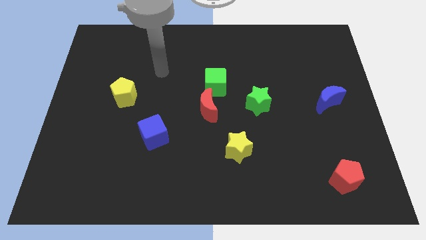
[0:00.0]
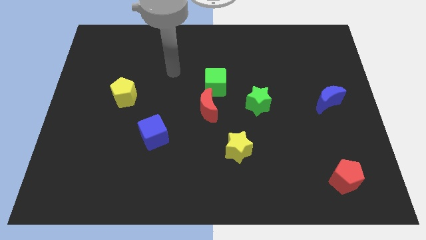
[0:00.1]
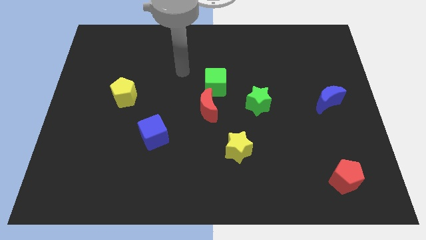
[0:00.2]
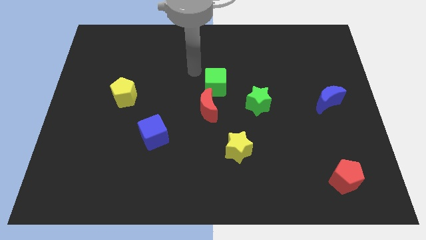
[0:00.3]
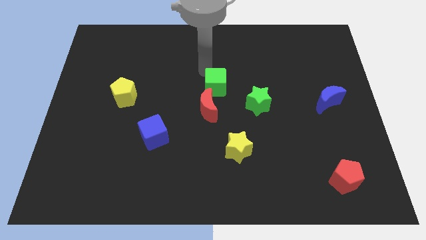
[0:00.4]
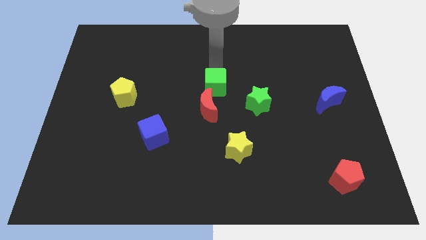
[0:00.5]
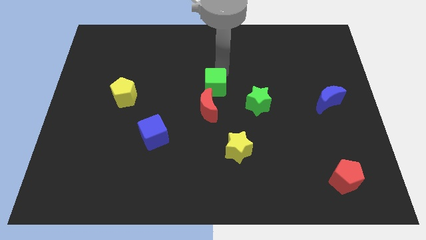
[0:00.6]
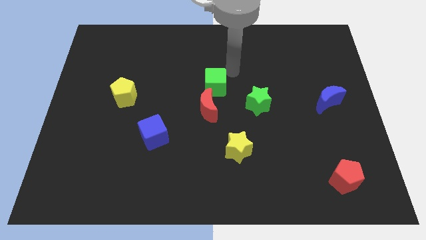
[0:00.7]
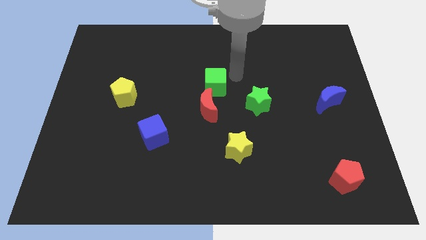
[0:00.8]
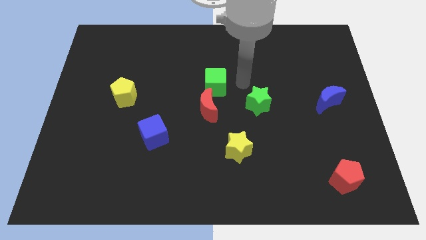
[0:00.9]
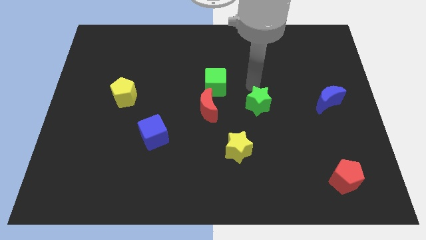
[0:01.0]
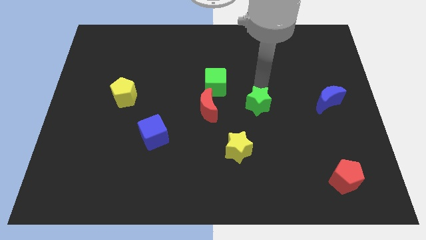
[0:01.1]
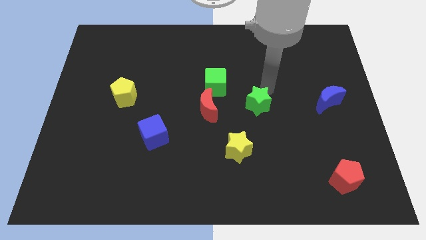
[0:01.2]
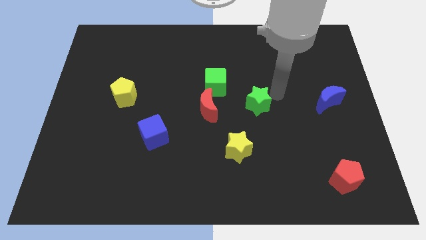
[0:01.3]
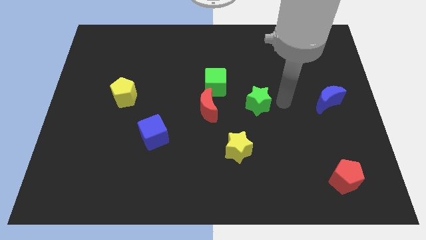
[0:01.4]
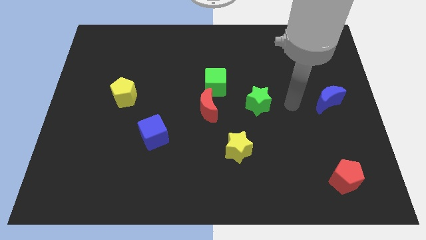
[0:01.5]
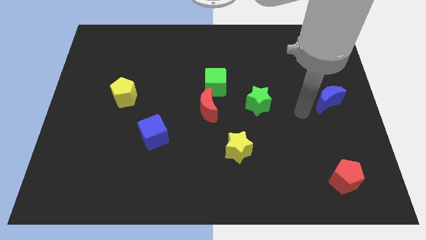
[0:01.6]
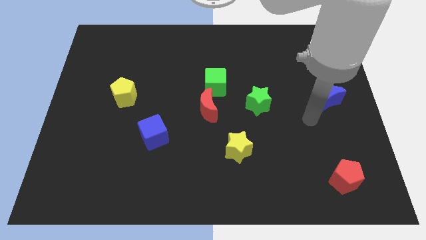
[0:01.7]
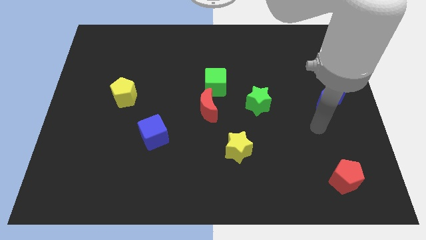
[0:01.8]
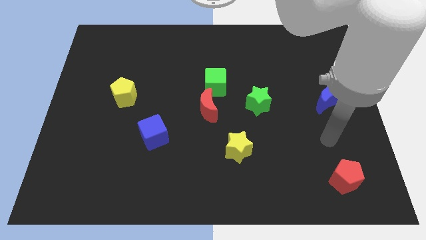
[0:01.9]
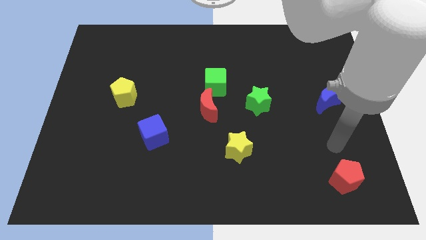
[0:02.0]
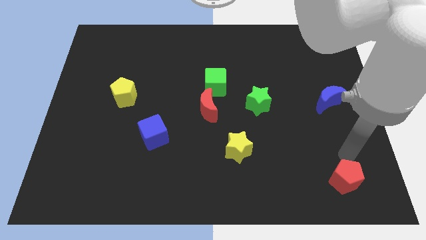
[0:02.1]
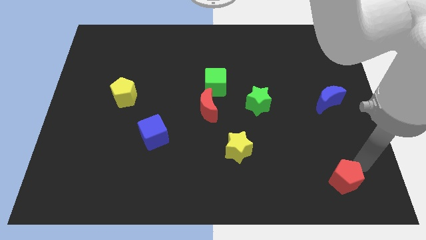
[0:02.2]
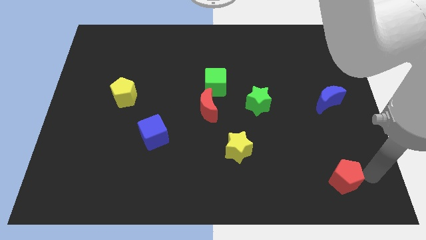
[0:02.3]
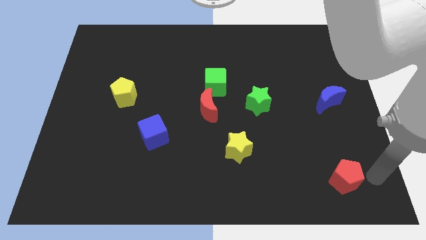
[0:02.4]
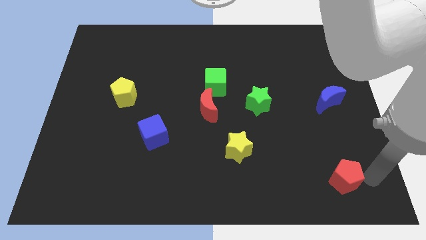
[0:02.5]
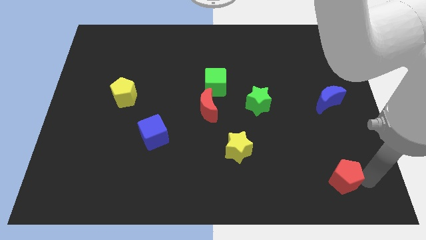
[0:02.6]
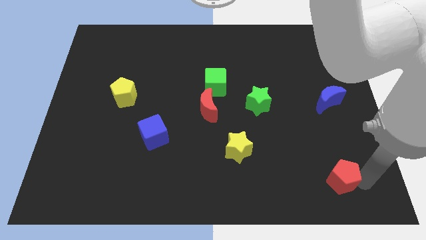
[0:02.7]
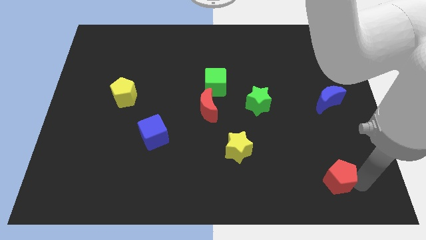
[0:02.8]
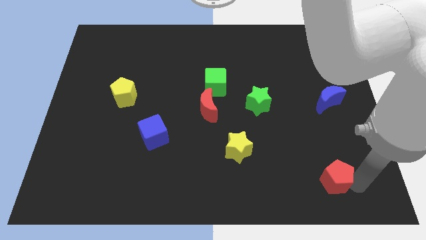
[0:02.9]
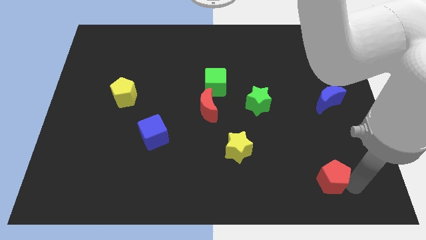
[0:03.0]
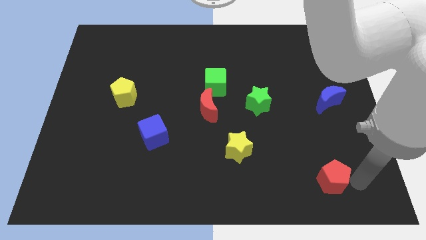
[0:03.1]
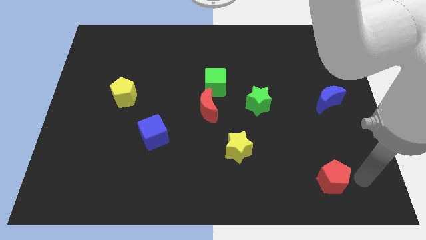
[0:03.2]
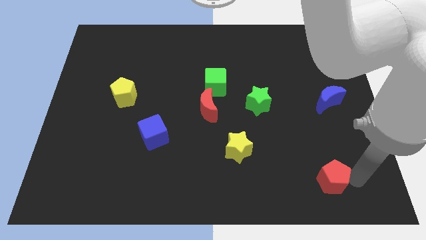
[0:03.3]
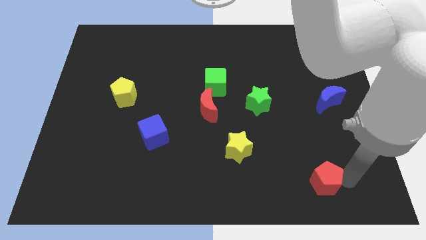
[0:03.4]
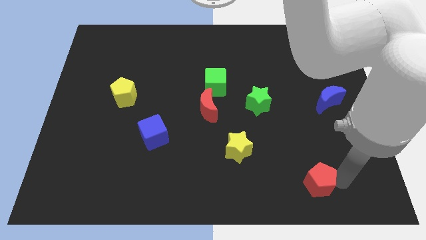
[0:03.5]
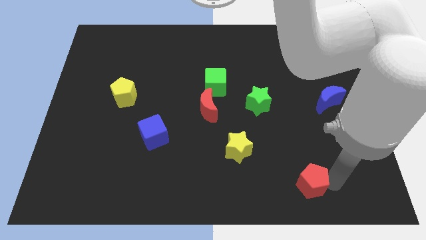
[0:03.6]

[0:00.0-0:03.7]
push the red pentagon to the left a little bit

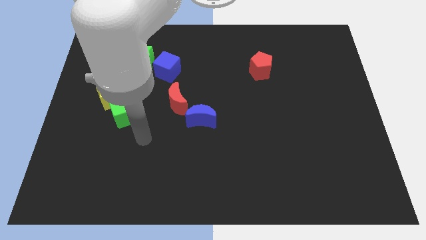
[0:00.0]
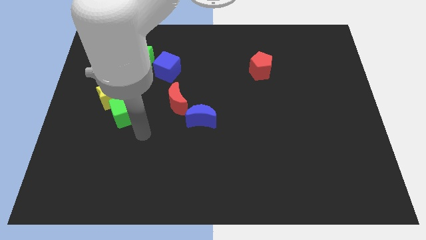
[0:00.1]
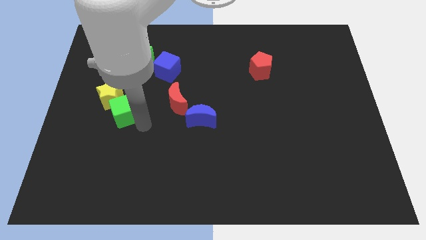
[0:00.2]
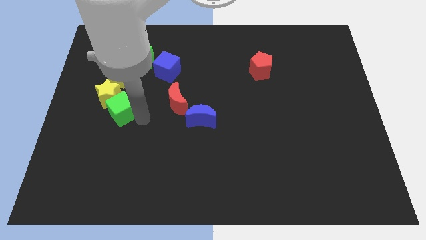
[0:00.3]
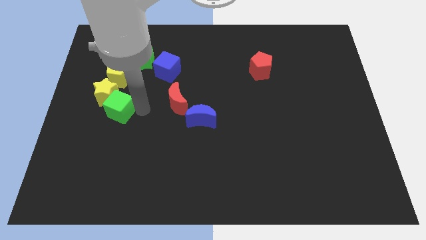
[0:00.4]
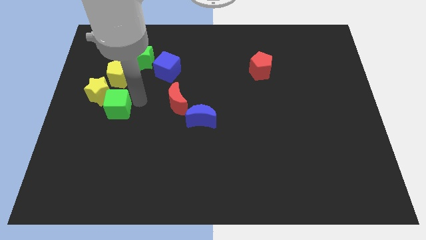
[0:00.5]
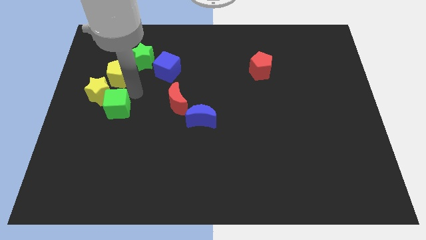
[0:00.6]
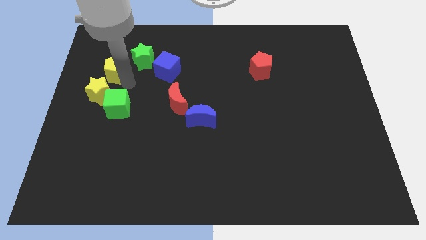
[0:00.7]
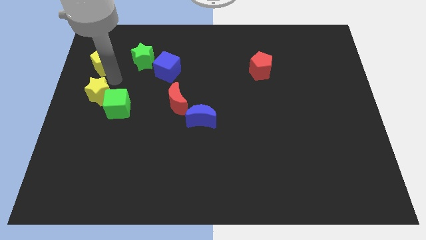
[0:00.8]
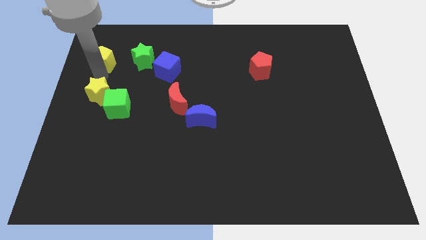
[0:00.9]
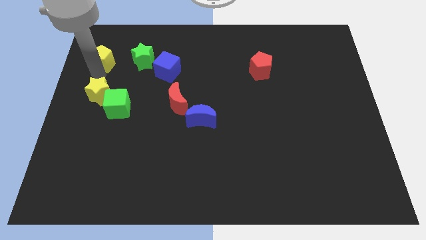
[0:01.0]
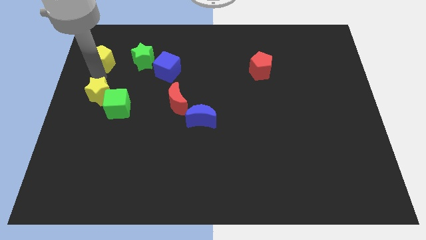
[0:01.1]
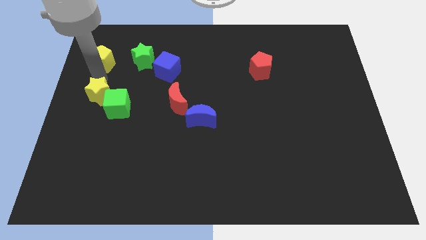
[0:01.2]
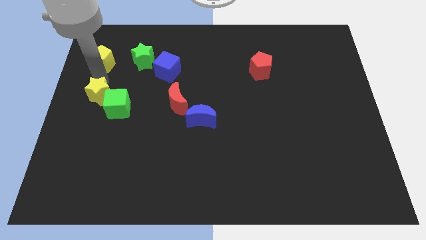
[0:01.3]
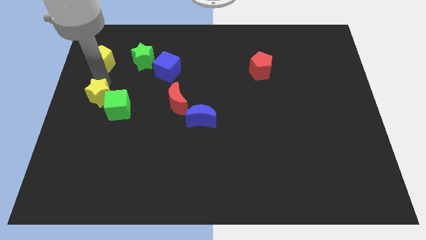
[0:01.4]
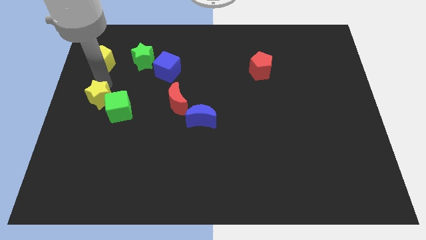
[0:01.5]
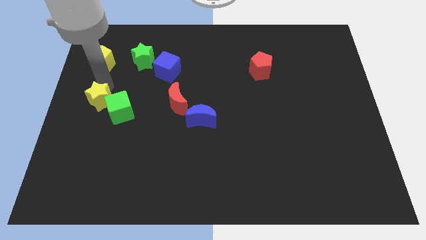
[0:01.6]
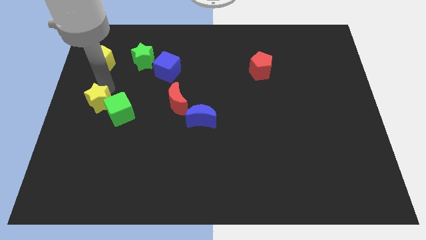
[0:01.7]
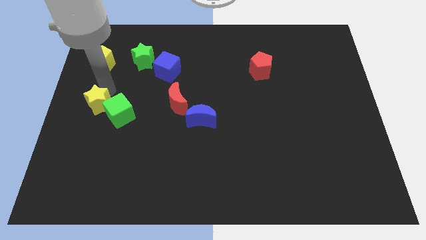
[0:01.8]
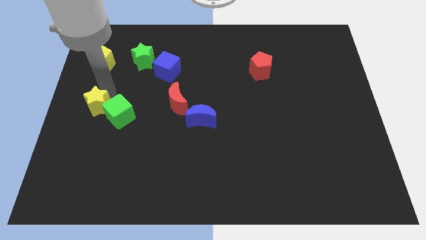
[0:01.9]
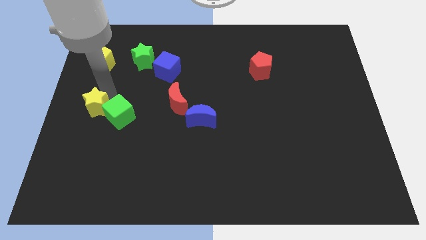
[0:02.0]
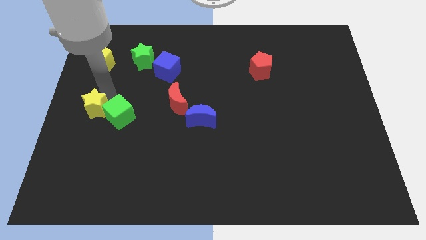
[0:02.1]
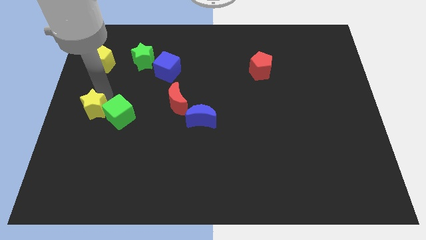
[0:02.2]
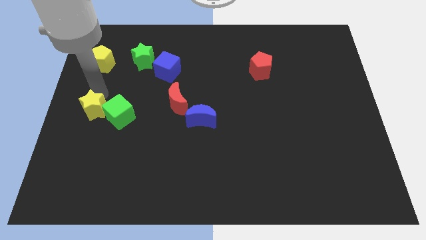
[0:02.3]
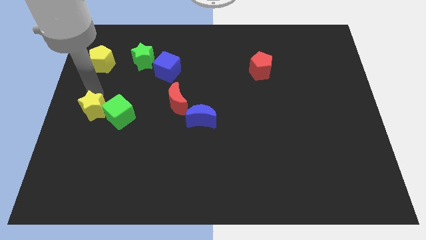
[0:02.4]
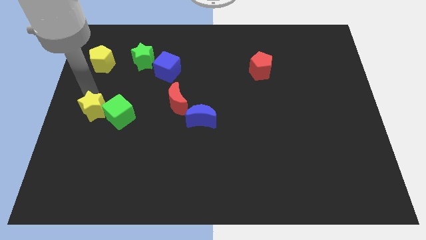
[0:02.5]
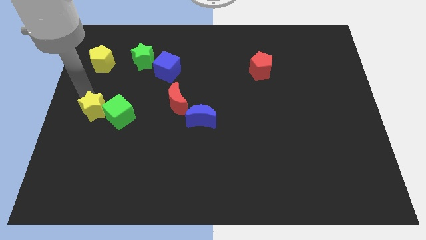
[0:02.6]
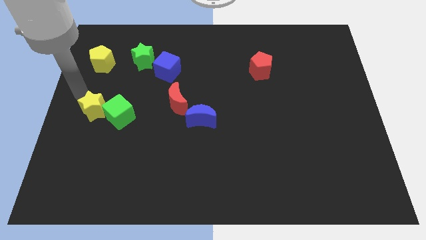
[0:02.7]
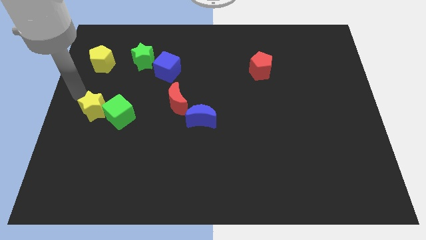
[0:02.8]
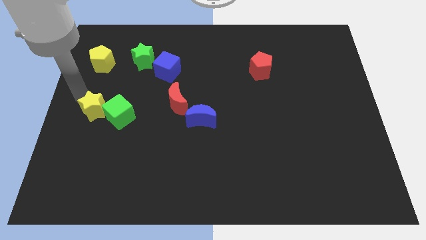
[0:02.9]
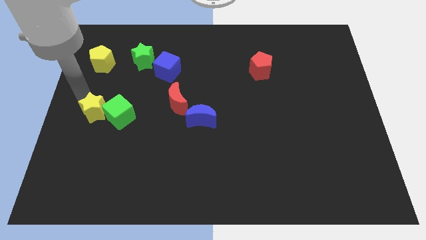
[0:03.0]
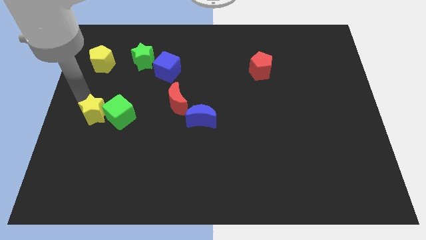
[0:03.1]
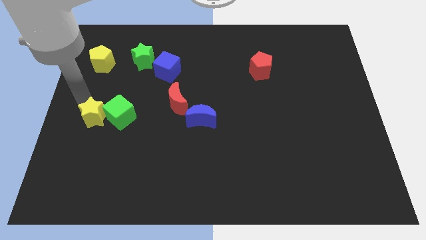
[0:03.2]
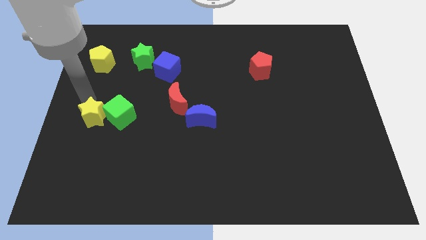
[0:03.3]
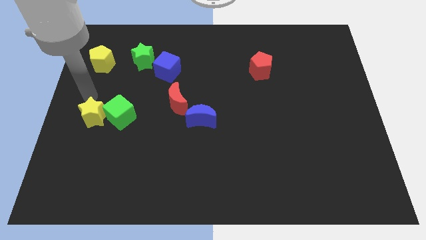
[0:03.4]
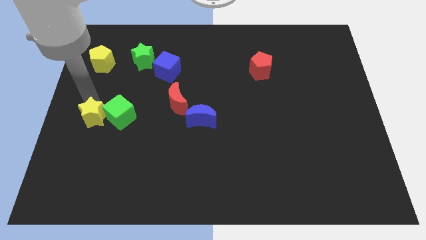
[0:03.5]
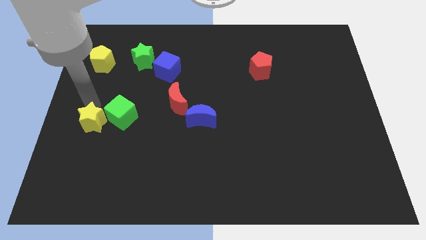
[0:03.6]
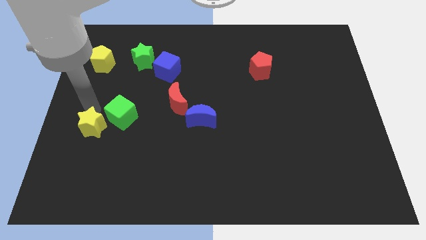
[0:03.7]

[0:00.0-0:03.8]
slide the yellow star slightly downwards

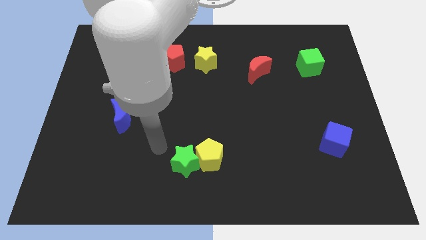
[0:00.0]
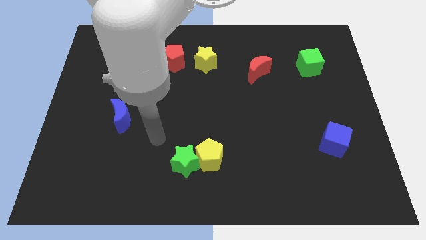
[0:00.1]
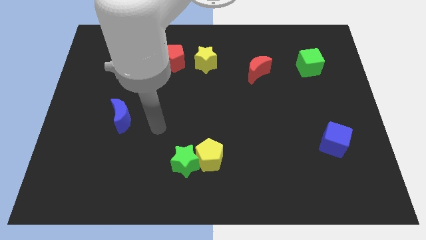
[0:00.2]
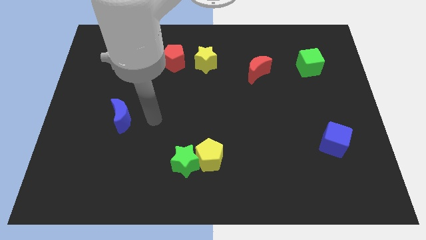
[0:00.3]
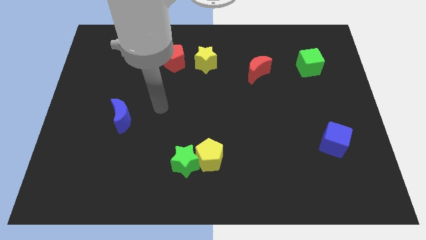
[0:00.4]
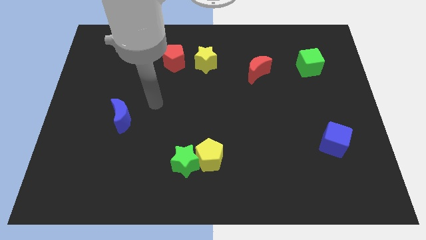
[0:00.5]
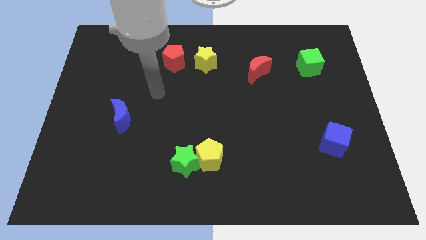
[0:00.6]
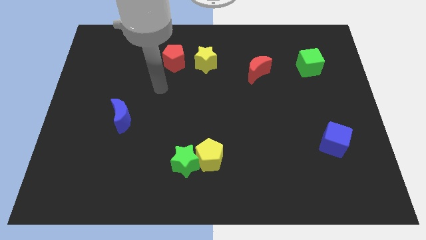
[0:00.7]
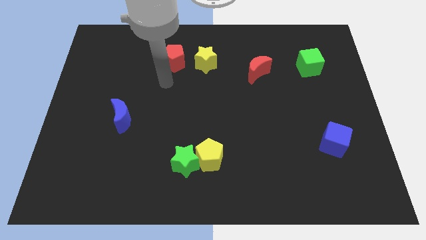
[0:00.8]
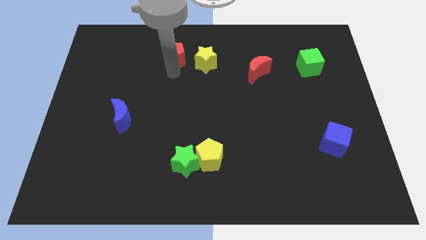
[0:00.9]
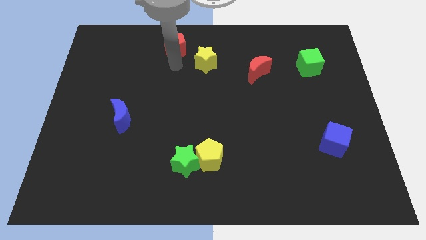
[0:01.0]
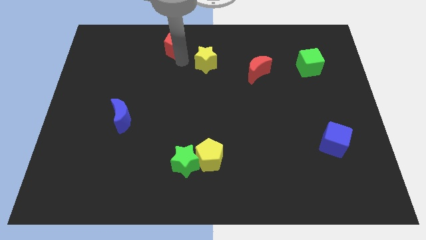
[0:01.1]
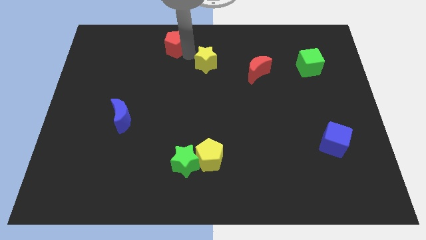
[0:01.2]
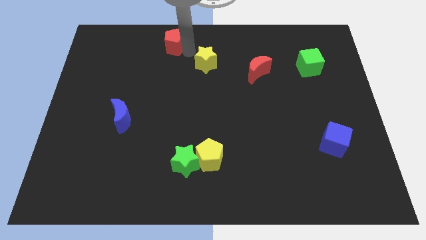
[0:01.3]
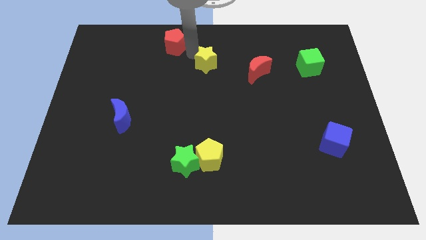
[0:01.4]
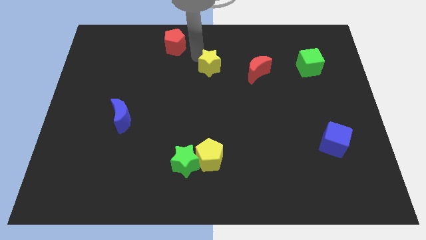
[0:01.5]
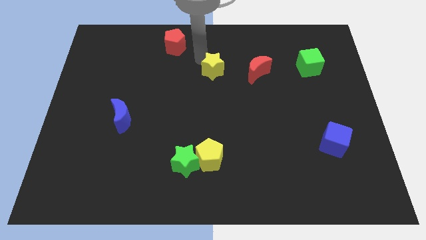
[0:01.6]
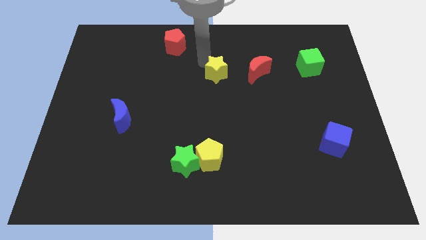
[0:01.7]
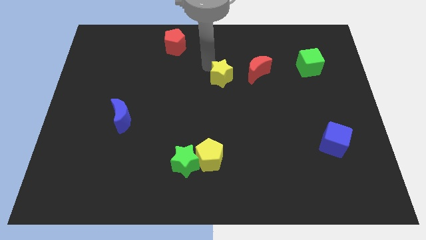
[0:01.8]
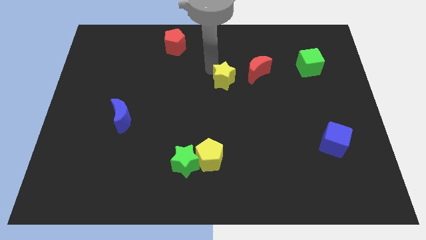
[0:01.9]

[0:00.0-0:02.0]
slightly move the yellow star down and then to the right
